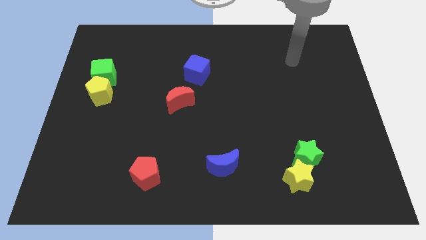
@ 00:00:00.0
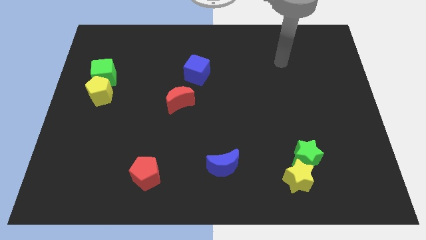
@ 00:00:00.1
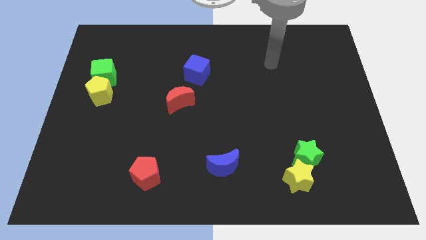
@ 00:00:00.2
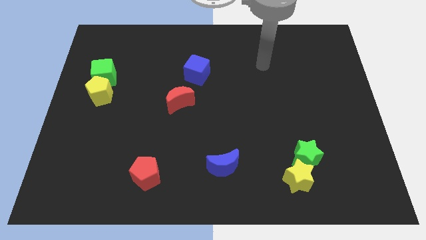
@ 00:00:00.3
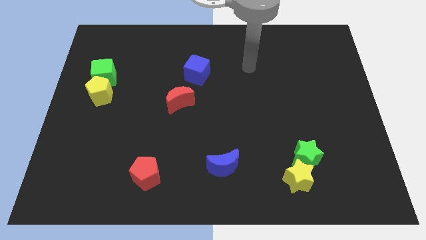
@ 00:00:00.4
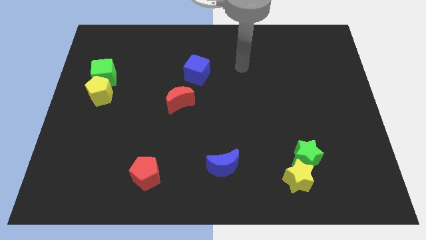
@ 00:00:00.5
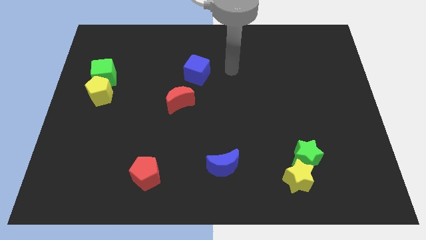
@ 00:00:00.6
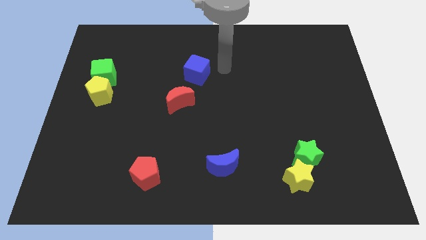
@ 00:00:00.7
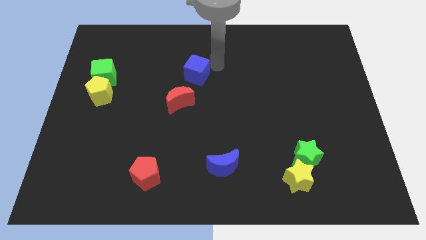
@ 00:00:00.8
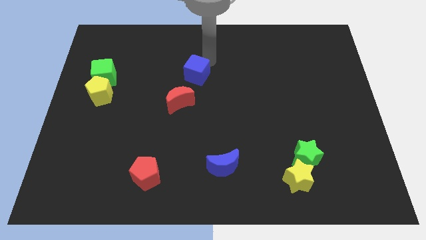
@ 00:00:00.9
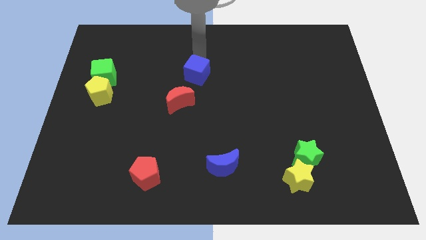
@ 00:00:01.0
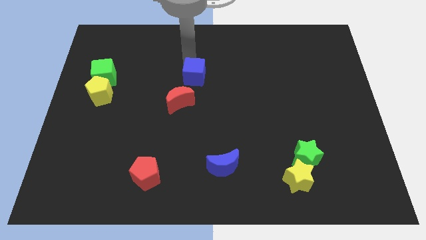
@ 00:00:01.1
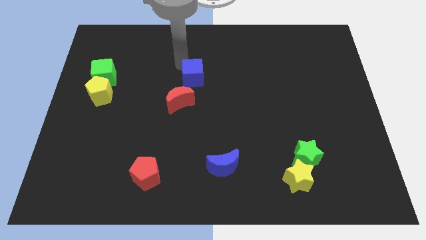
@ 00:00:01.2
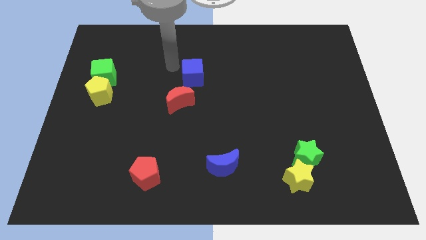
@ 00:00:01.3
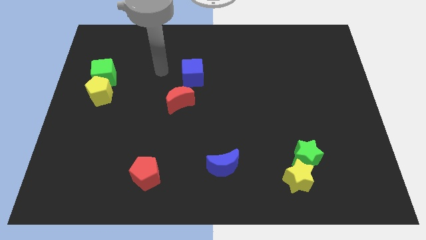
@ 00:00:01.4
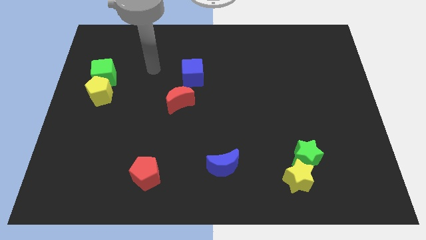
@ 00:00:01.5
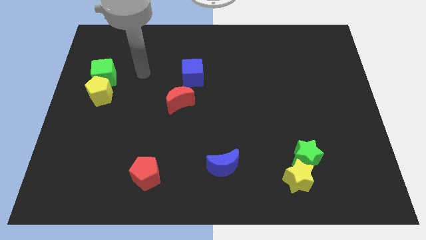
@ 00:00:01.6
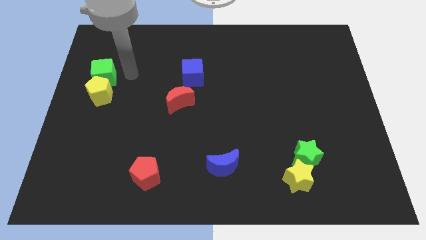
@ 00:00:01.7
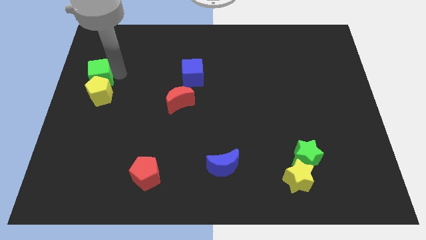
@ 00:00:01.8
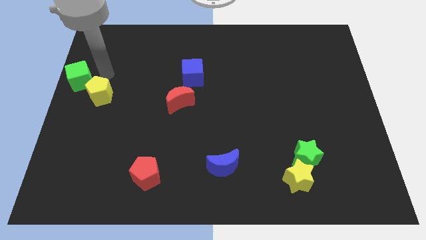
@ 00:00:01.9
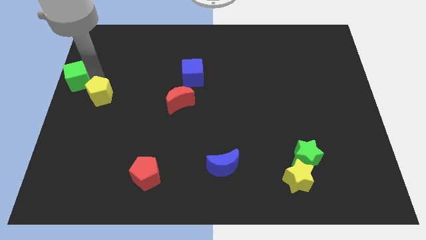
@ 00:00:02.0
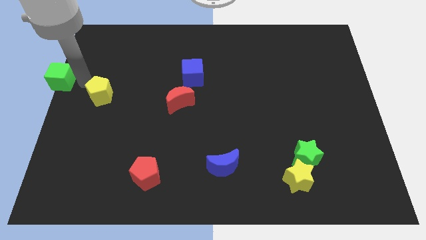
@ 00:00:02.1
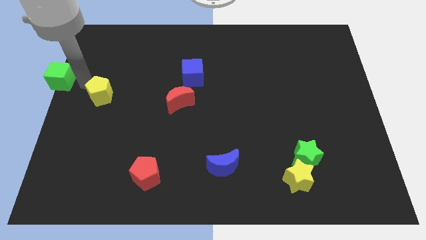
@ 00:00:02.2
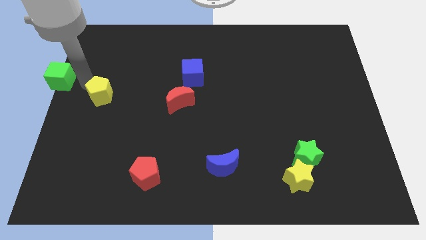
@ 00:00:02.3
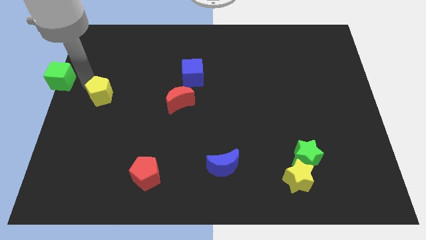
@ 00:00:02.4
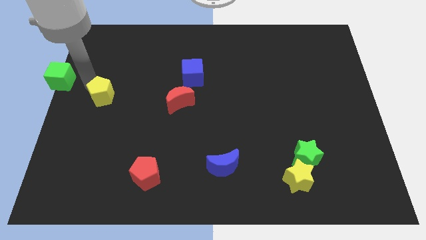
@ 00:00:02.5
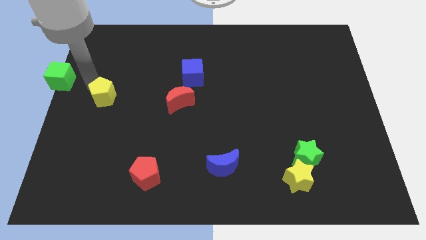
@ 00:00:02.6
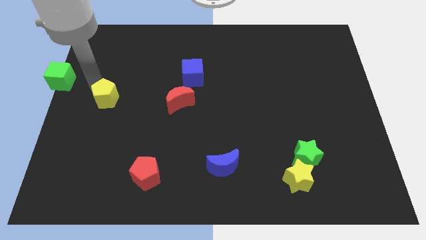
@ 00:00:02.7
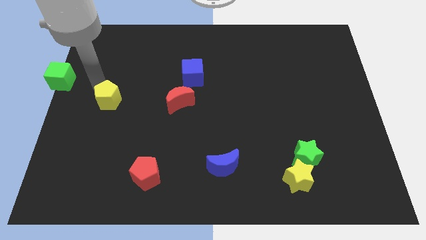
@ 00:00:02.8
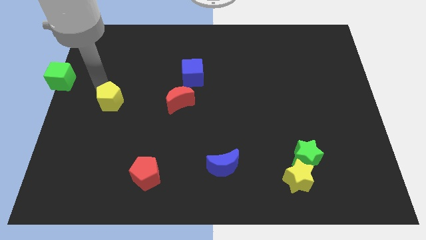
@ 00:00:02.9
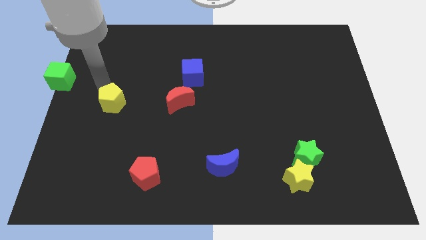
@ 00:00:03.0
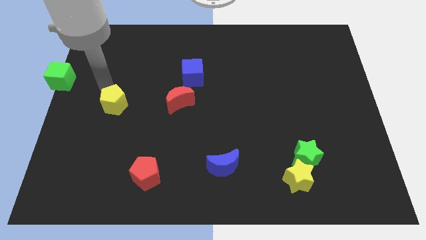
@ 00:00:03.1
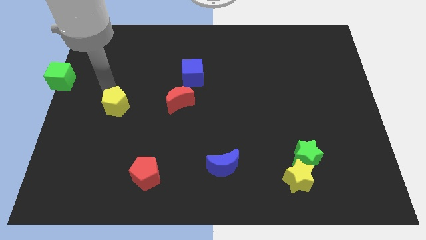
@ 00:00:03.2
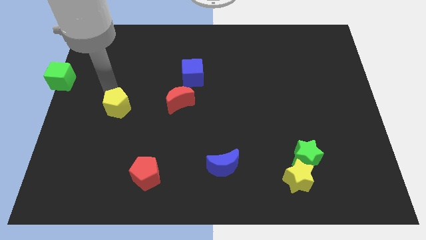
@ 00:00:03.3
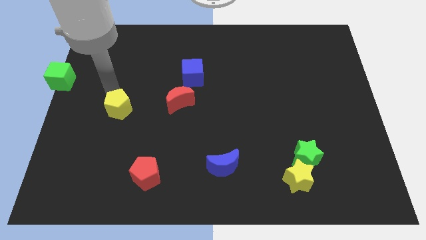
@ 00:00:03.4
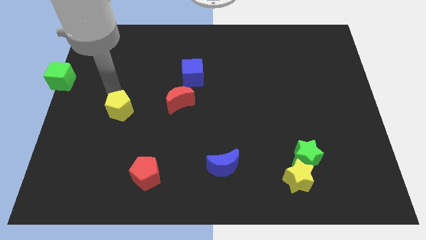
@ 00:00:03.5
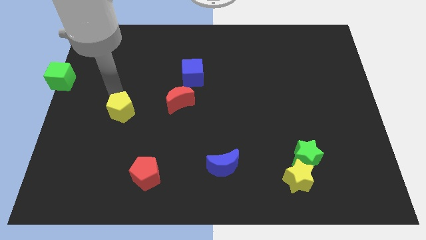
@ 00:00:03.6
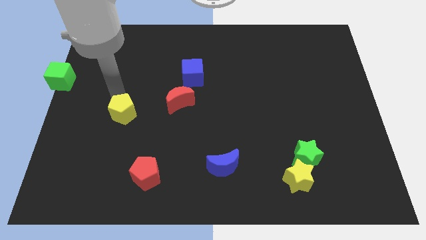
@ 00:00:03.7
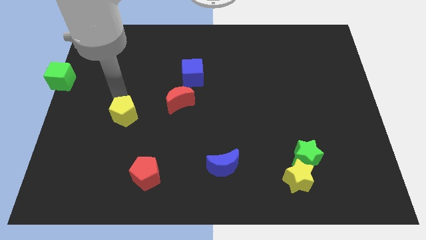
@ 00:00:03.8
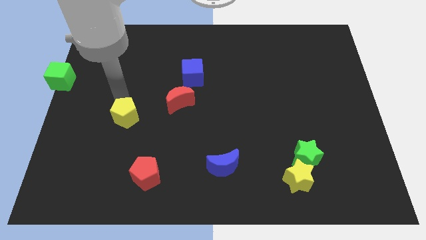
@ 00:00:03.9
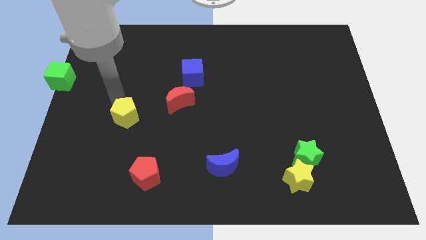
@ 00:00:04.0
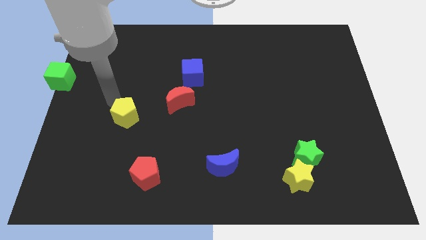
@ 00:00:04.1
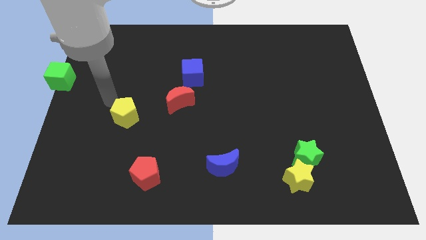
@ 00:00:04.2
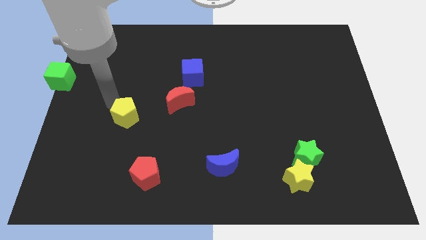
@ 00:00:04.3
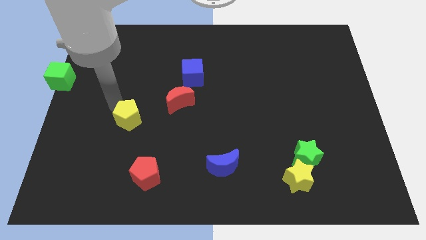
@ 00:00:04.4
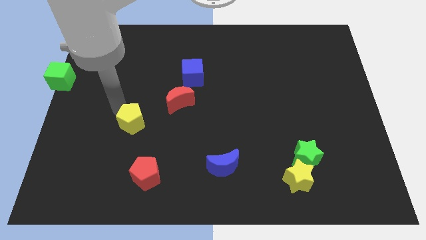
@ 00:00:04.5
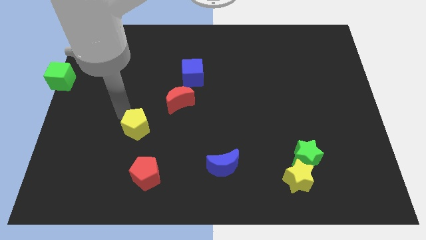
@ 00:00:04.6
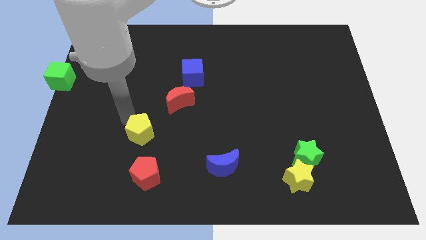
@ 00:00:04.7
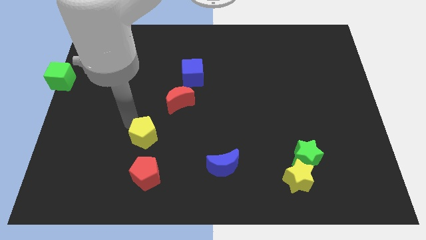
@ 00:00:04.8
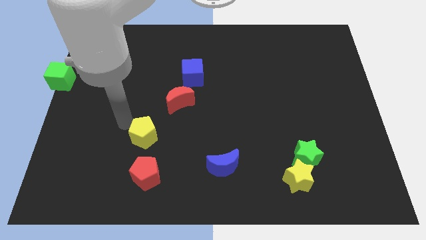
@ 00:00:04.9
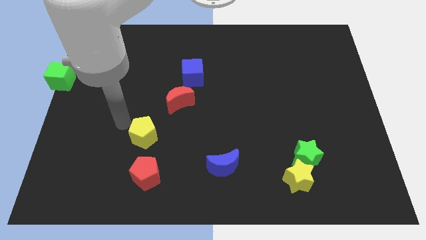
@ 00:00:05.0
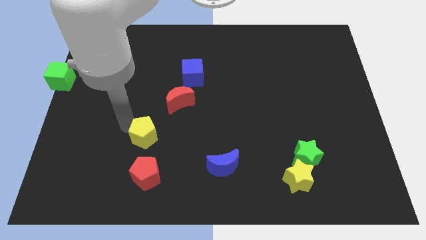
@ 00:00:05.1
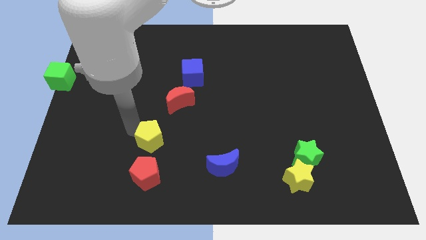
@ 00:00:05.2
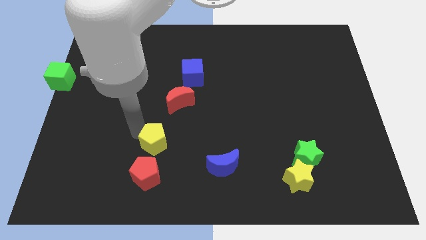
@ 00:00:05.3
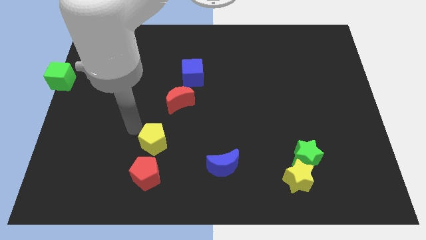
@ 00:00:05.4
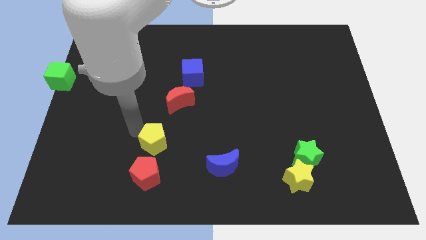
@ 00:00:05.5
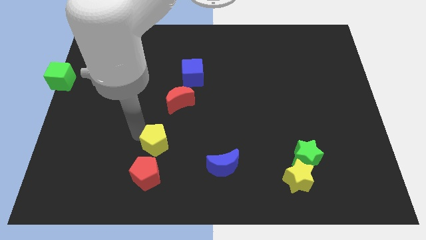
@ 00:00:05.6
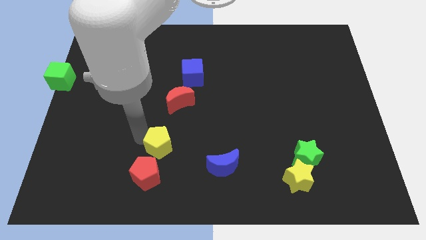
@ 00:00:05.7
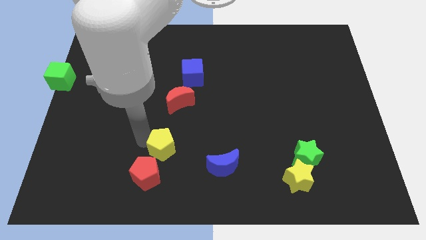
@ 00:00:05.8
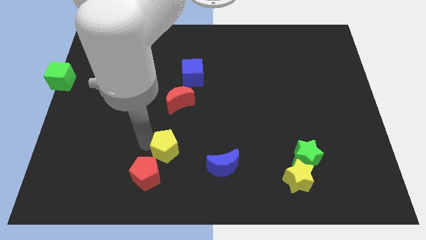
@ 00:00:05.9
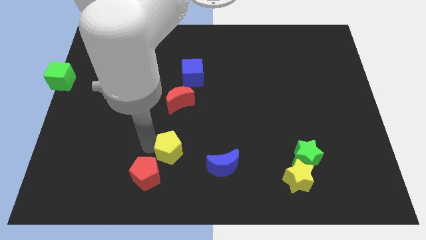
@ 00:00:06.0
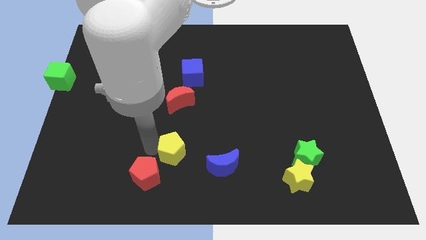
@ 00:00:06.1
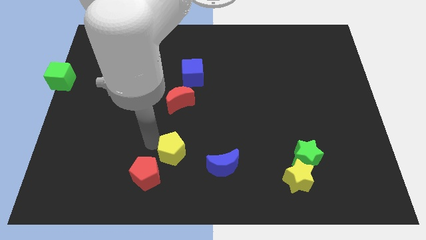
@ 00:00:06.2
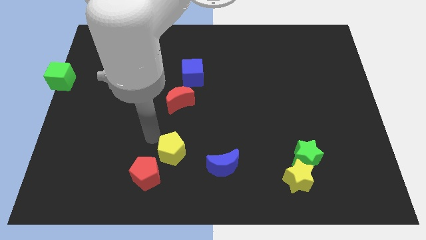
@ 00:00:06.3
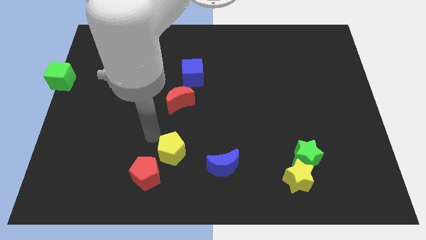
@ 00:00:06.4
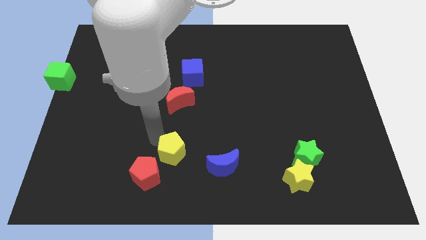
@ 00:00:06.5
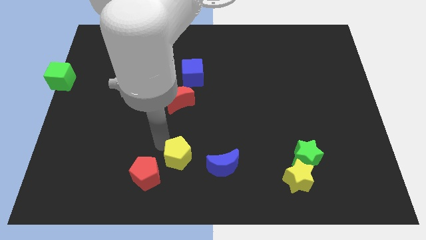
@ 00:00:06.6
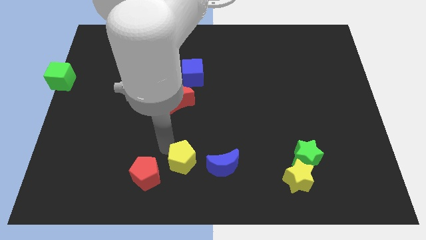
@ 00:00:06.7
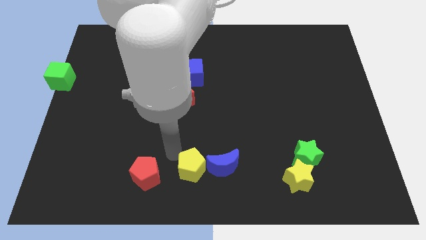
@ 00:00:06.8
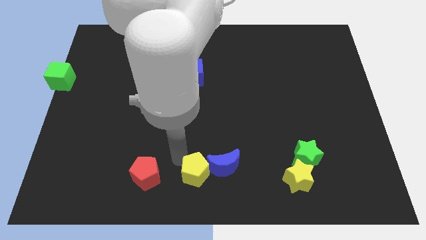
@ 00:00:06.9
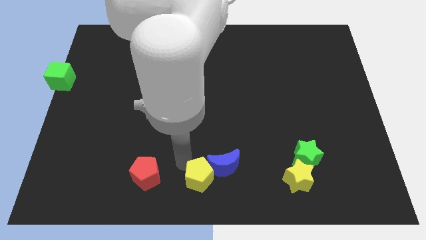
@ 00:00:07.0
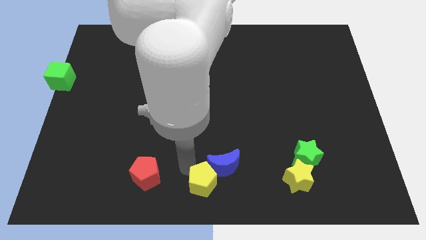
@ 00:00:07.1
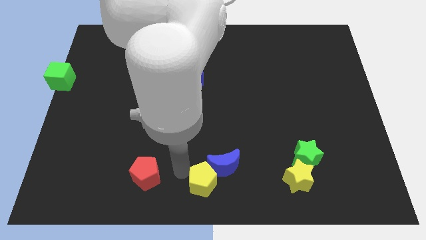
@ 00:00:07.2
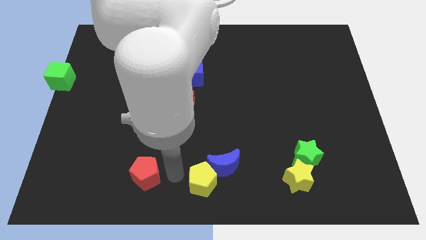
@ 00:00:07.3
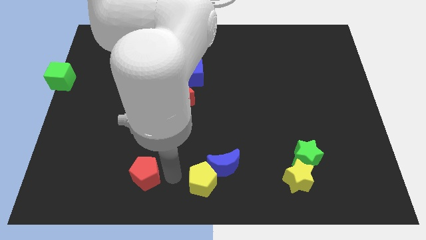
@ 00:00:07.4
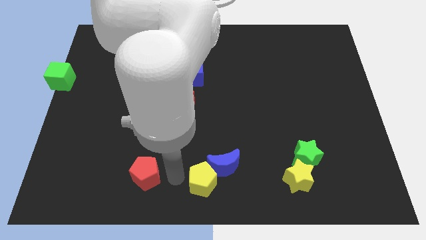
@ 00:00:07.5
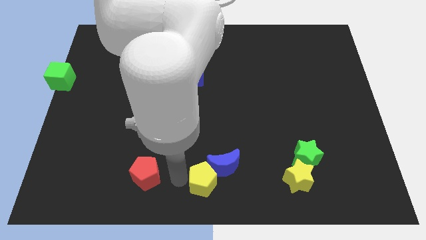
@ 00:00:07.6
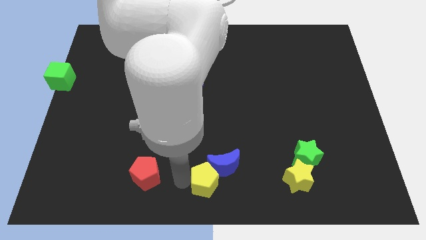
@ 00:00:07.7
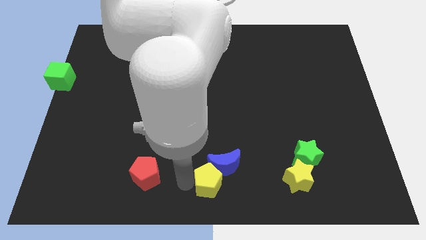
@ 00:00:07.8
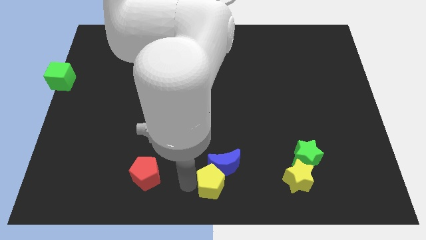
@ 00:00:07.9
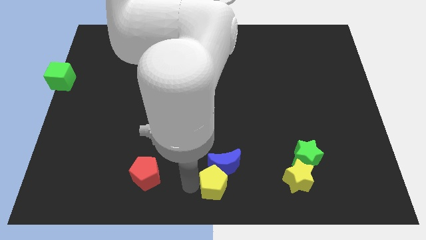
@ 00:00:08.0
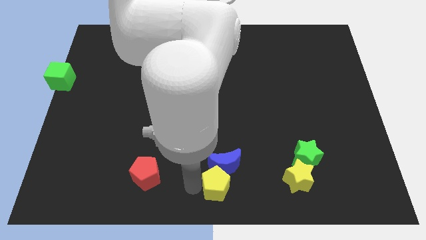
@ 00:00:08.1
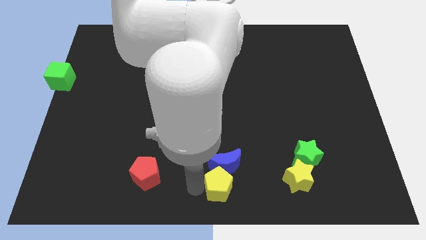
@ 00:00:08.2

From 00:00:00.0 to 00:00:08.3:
move the yellow pentagon to the left side of the yellow star
